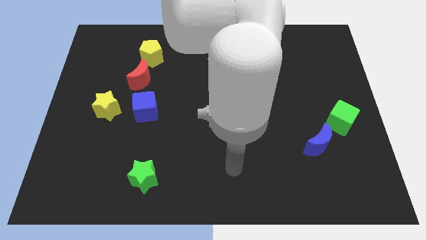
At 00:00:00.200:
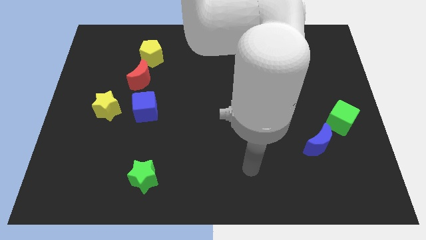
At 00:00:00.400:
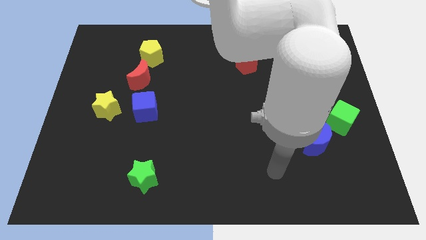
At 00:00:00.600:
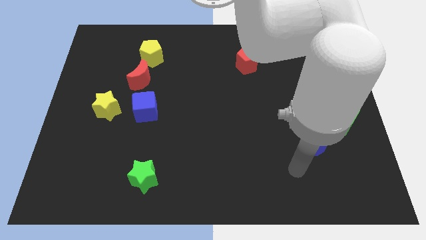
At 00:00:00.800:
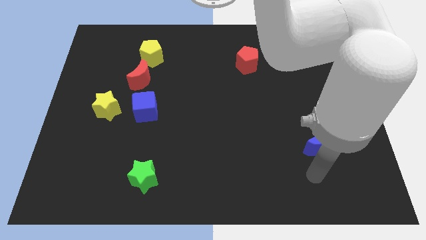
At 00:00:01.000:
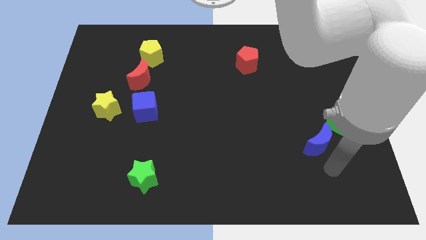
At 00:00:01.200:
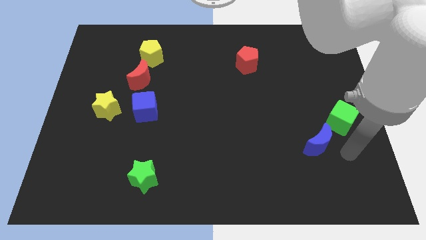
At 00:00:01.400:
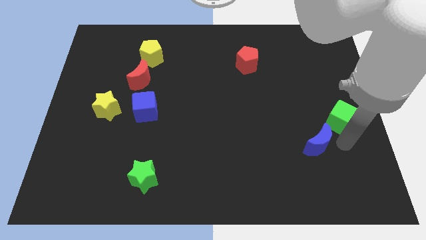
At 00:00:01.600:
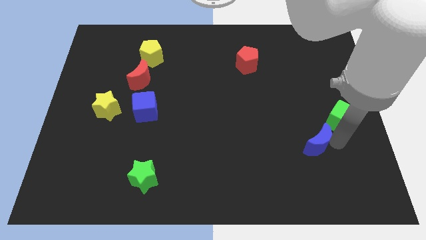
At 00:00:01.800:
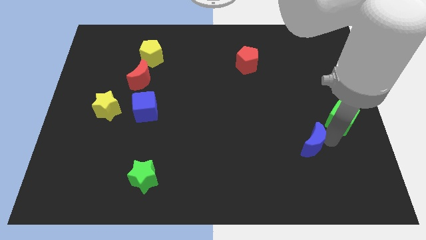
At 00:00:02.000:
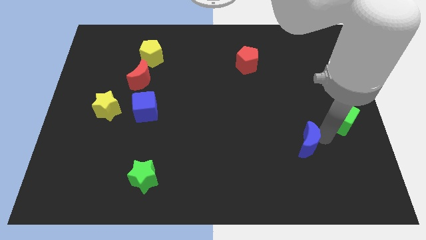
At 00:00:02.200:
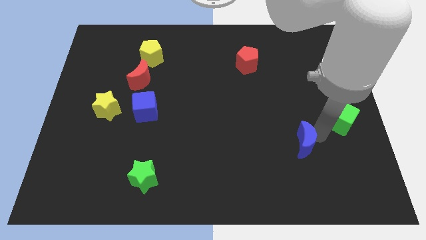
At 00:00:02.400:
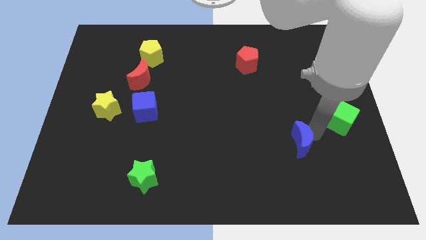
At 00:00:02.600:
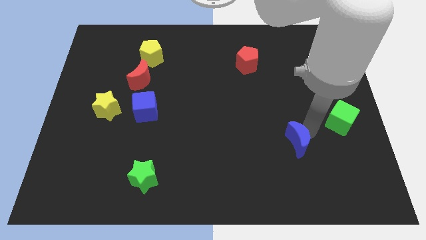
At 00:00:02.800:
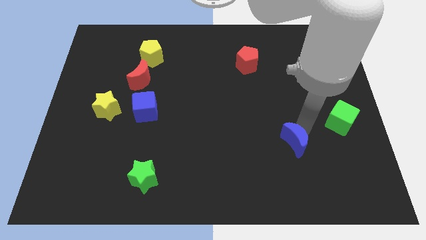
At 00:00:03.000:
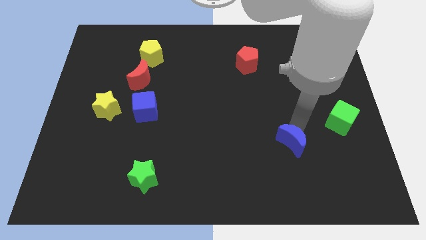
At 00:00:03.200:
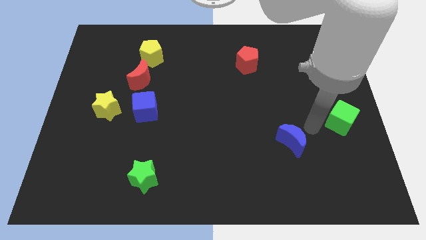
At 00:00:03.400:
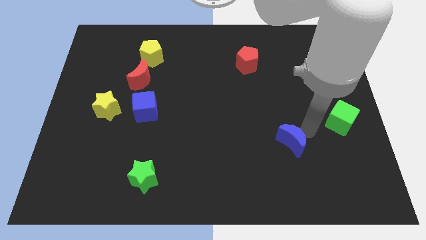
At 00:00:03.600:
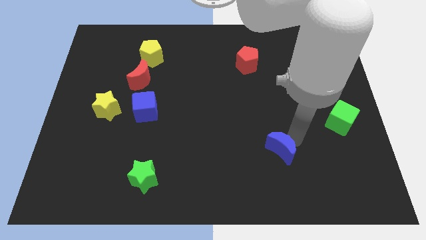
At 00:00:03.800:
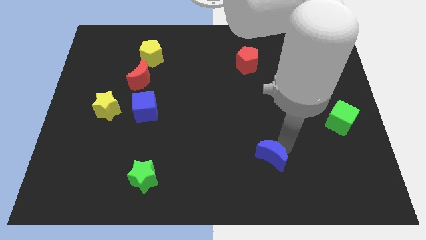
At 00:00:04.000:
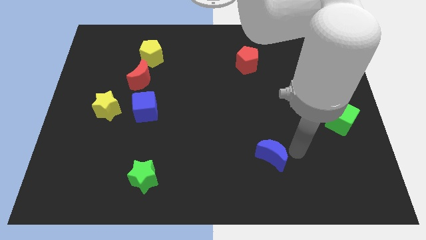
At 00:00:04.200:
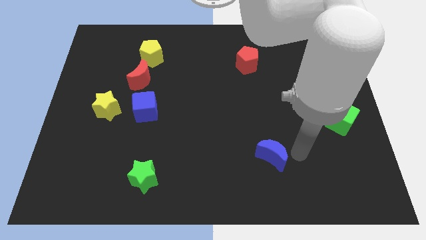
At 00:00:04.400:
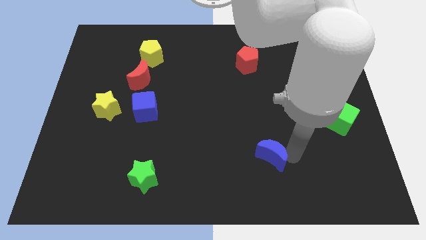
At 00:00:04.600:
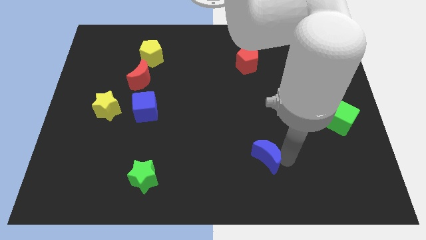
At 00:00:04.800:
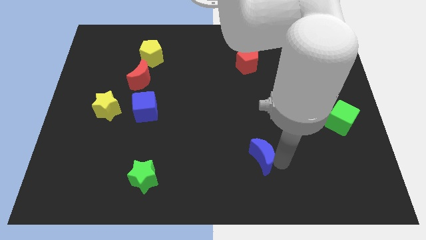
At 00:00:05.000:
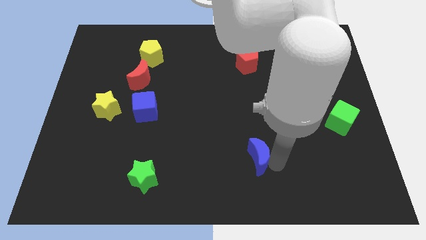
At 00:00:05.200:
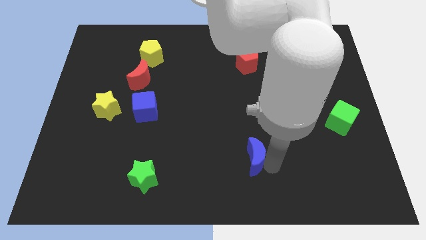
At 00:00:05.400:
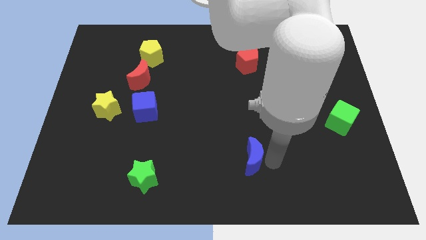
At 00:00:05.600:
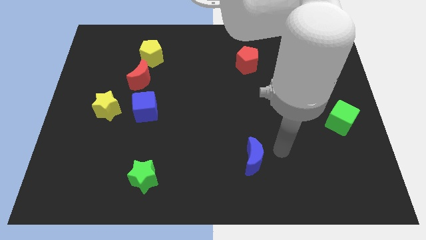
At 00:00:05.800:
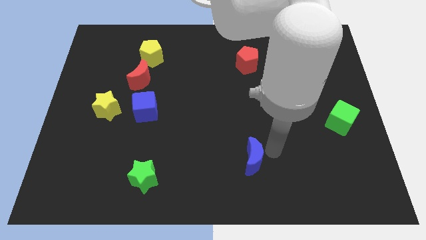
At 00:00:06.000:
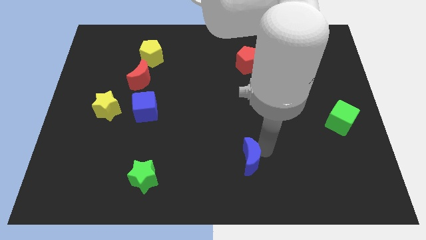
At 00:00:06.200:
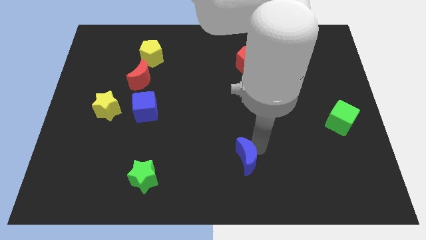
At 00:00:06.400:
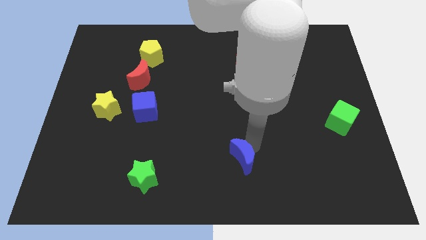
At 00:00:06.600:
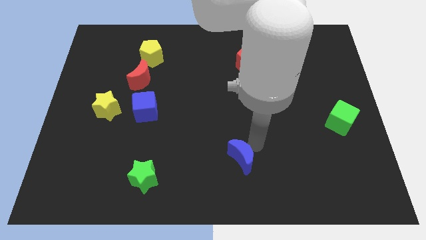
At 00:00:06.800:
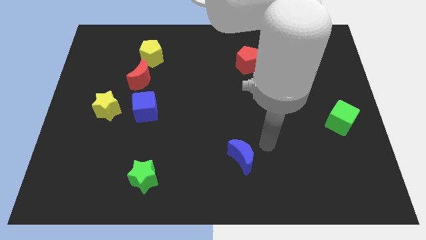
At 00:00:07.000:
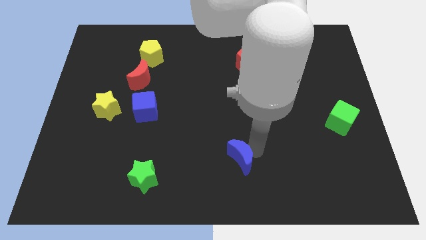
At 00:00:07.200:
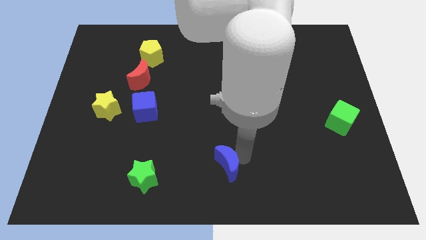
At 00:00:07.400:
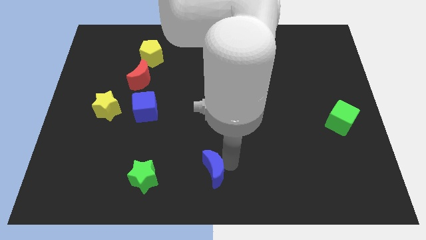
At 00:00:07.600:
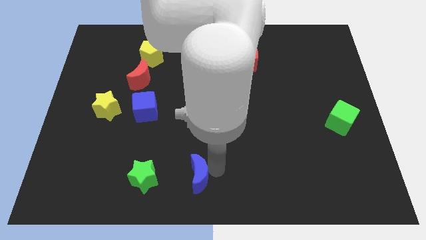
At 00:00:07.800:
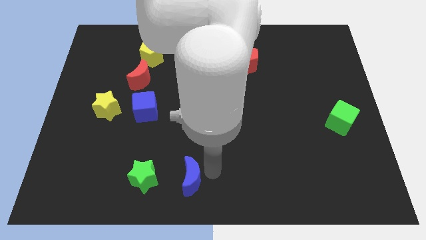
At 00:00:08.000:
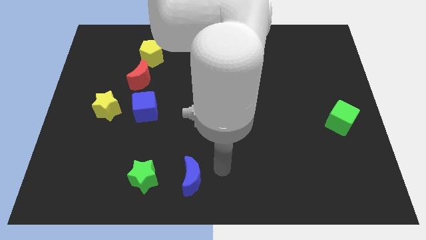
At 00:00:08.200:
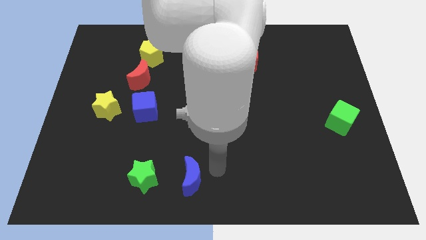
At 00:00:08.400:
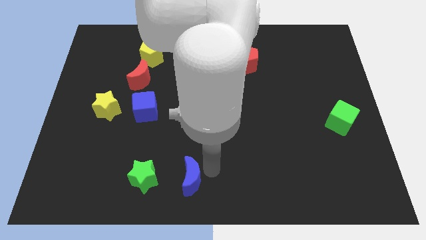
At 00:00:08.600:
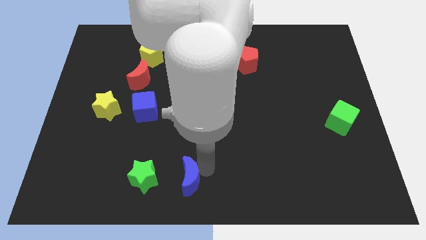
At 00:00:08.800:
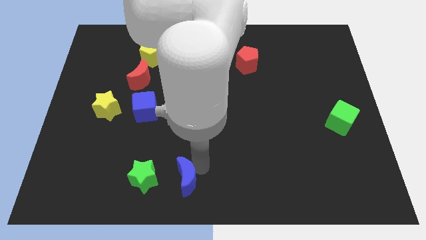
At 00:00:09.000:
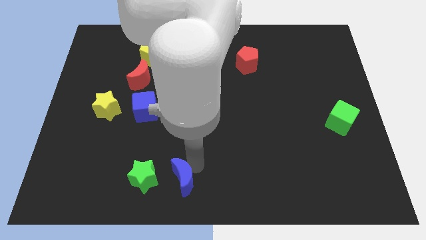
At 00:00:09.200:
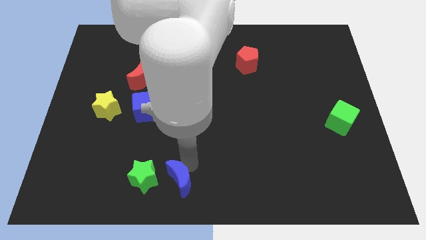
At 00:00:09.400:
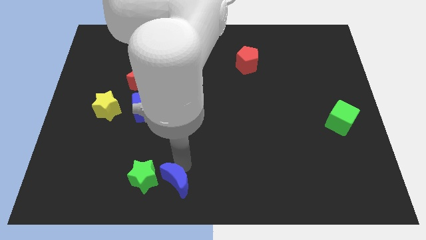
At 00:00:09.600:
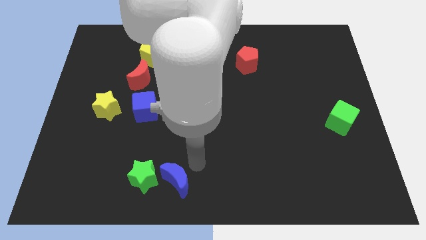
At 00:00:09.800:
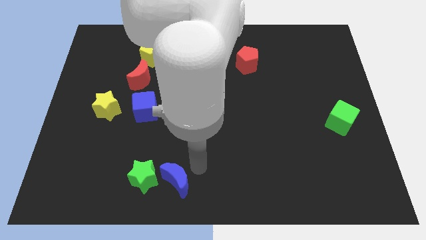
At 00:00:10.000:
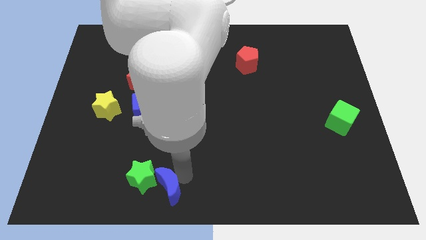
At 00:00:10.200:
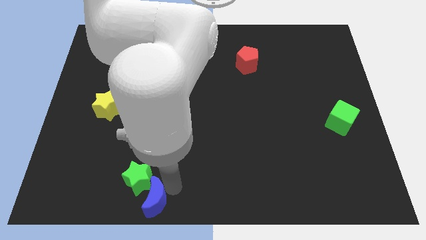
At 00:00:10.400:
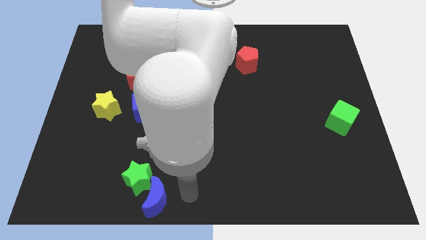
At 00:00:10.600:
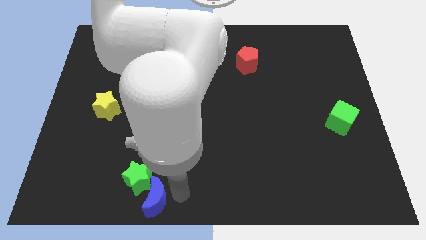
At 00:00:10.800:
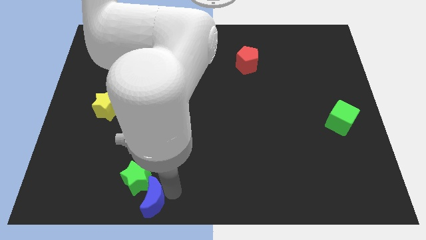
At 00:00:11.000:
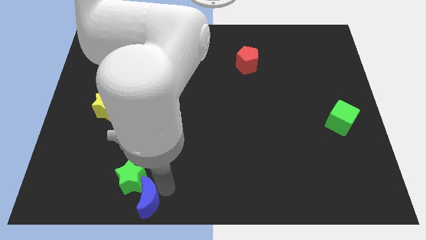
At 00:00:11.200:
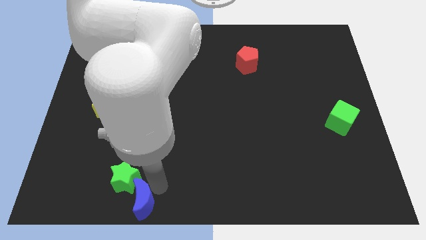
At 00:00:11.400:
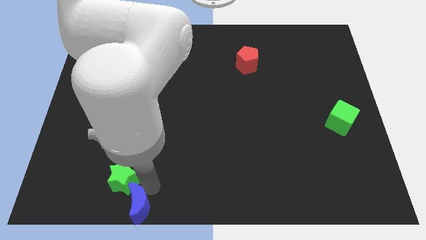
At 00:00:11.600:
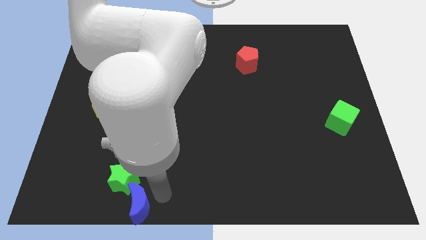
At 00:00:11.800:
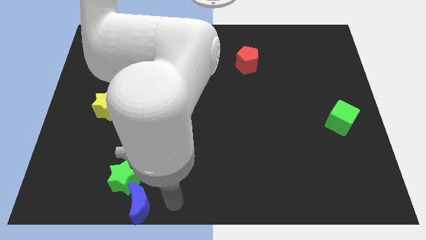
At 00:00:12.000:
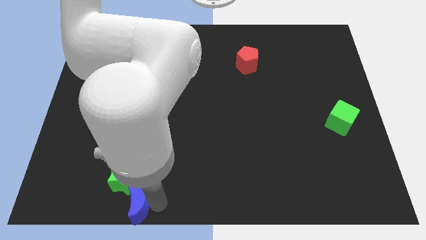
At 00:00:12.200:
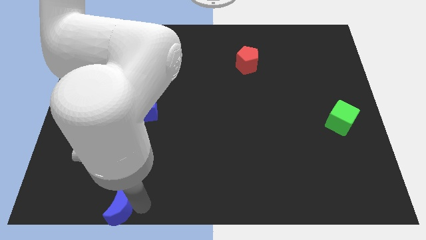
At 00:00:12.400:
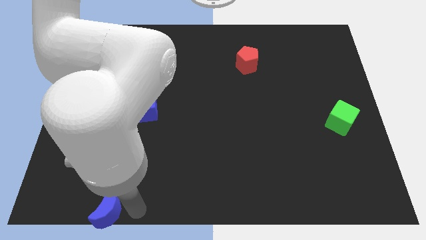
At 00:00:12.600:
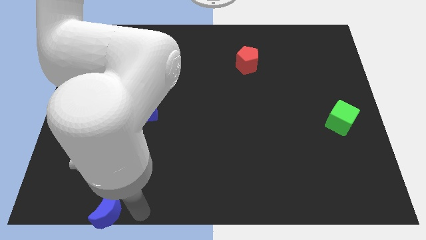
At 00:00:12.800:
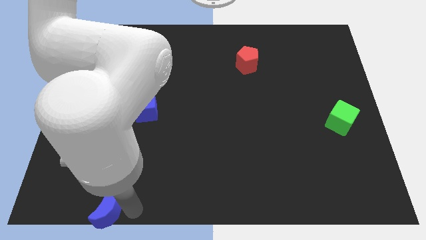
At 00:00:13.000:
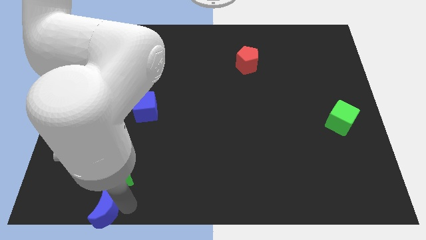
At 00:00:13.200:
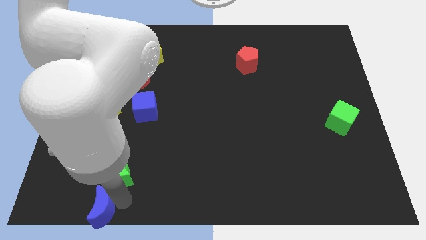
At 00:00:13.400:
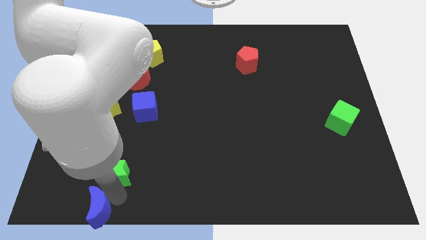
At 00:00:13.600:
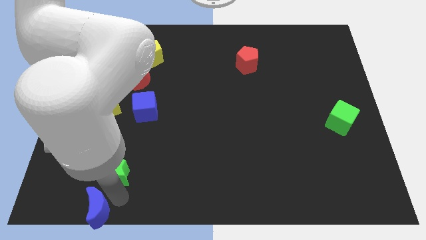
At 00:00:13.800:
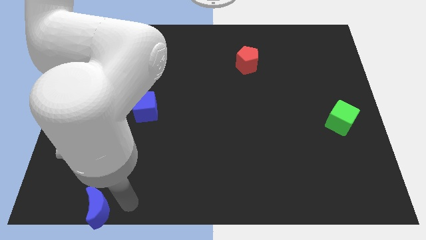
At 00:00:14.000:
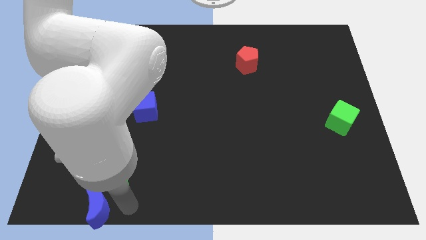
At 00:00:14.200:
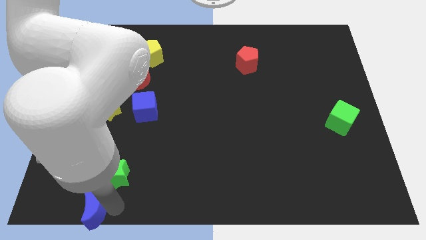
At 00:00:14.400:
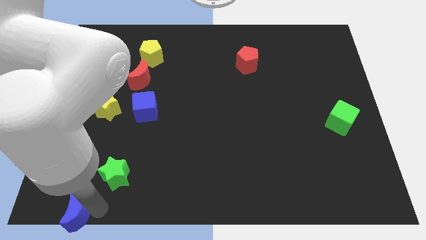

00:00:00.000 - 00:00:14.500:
slide the blue moon to the bottom left corner
